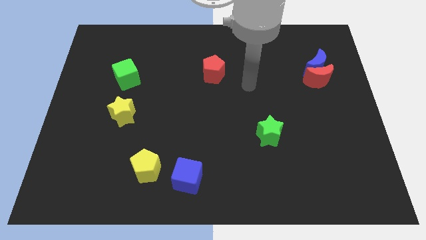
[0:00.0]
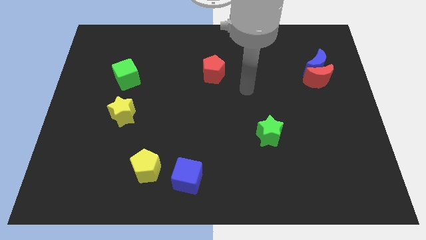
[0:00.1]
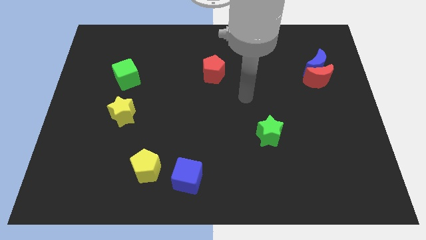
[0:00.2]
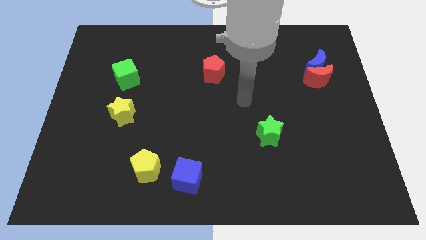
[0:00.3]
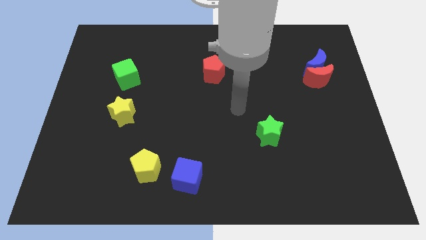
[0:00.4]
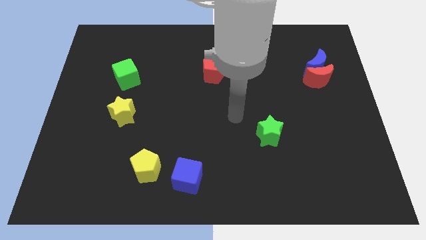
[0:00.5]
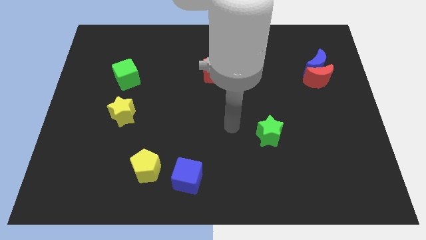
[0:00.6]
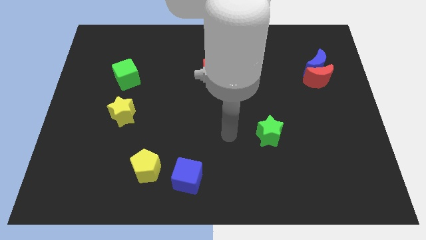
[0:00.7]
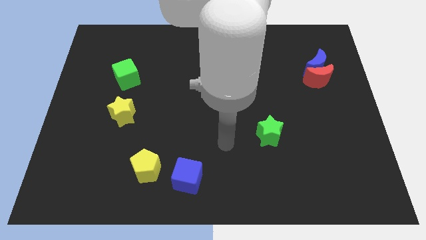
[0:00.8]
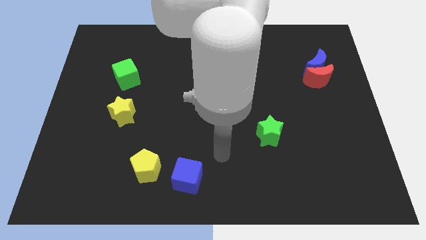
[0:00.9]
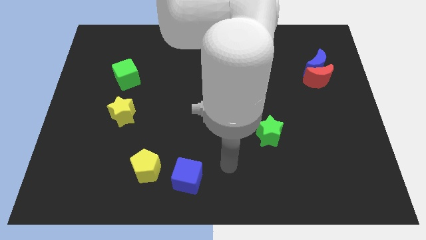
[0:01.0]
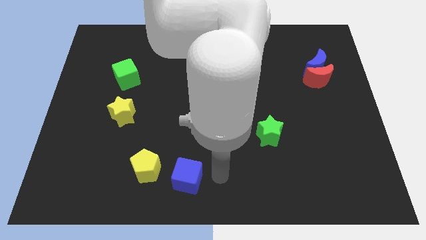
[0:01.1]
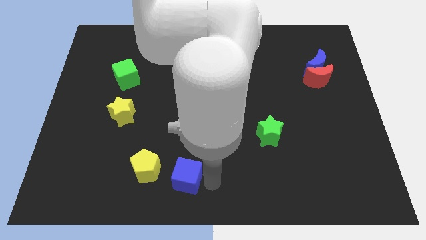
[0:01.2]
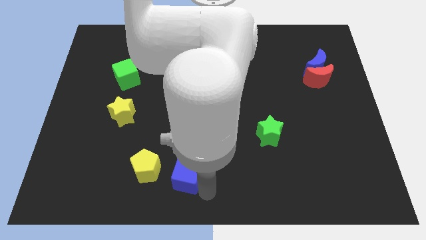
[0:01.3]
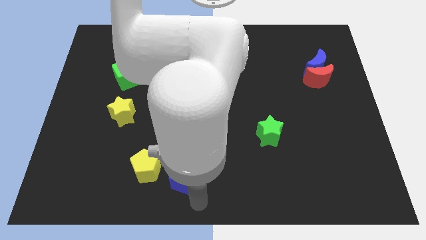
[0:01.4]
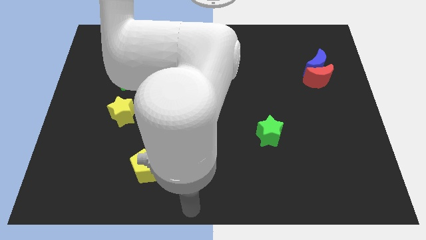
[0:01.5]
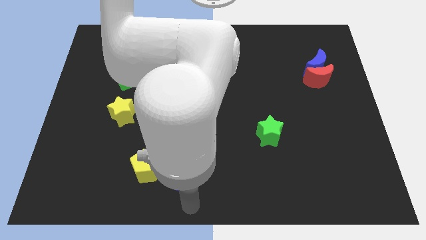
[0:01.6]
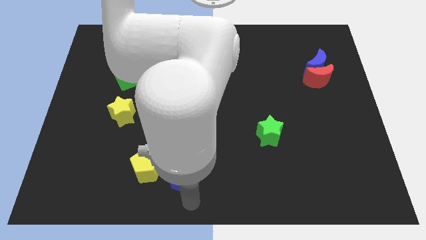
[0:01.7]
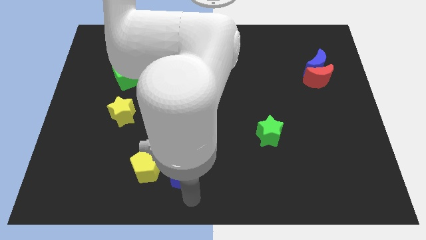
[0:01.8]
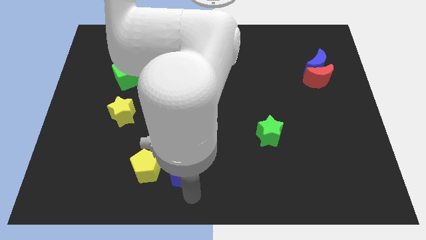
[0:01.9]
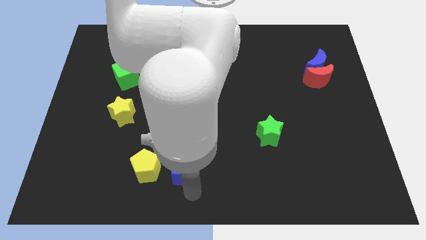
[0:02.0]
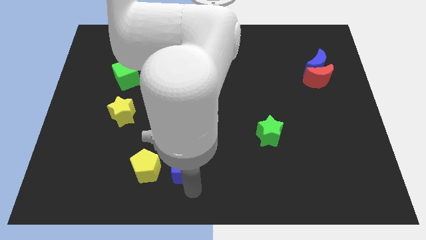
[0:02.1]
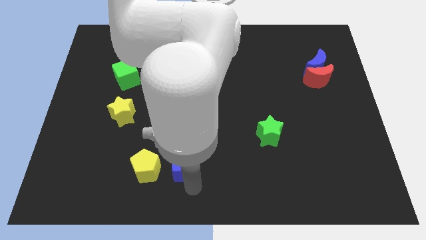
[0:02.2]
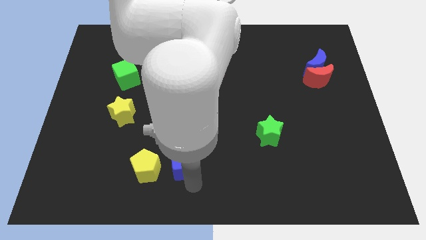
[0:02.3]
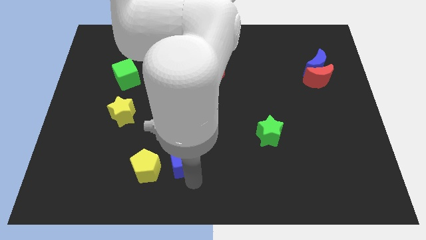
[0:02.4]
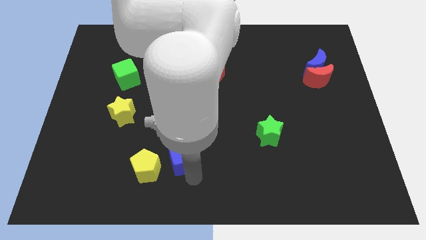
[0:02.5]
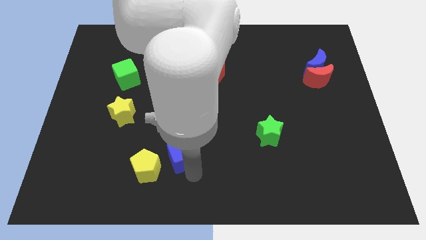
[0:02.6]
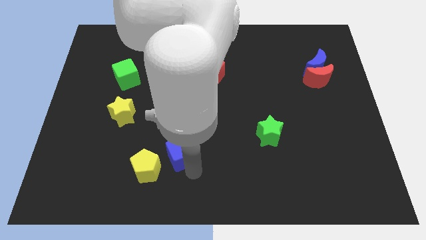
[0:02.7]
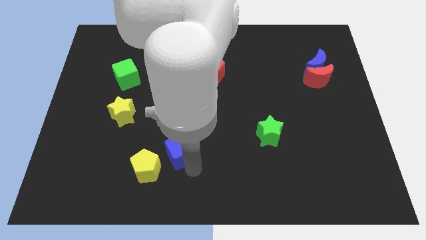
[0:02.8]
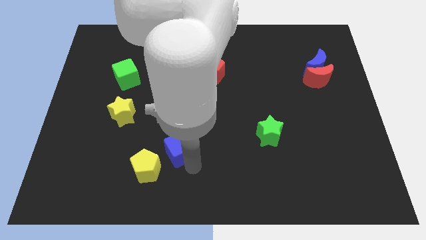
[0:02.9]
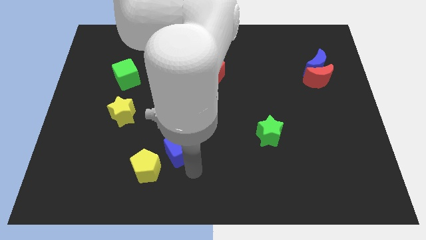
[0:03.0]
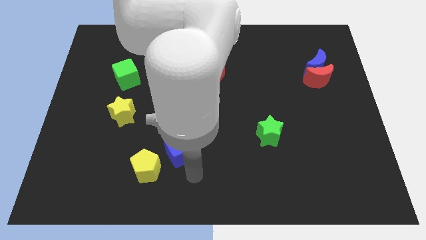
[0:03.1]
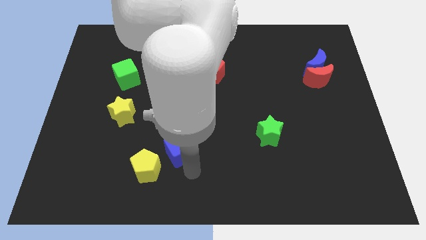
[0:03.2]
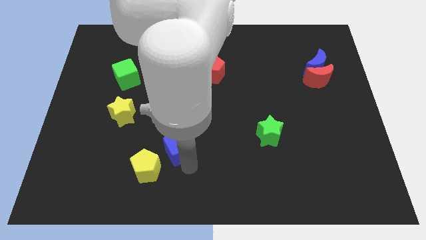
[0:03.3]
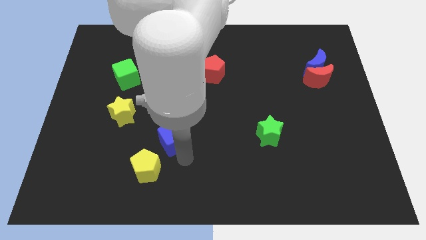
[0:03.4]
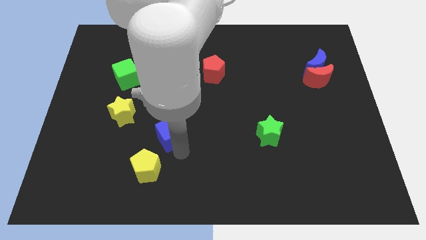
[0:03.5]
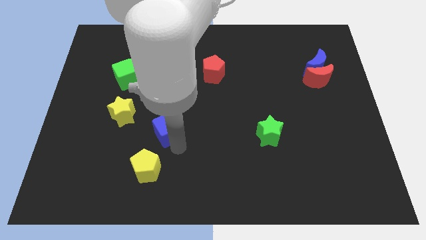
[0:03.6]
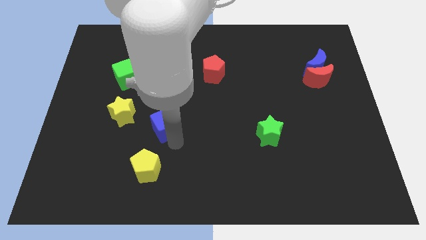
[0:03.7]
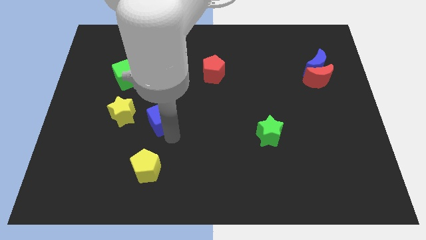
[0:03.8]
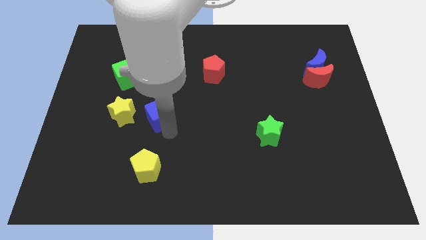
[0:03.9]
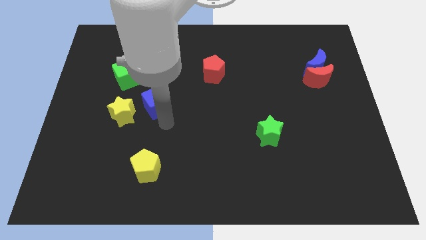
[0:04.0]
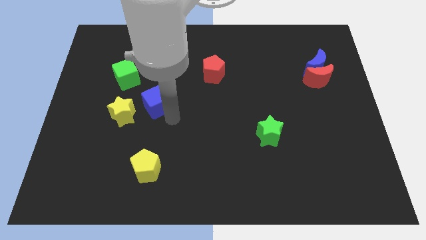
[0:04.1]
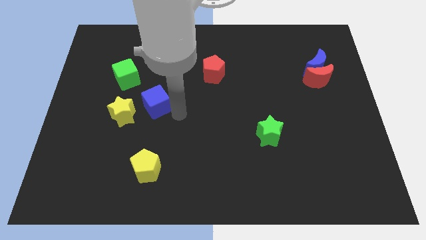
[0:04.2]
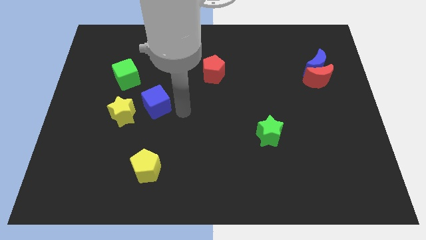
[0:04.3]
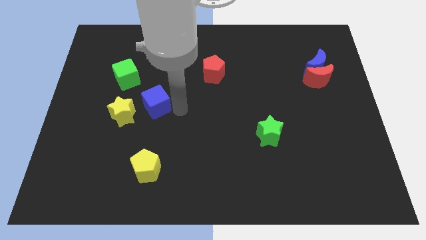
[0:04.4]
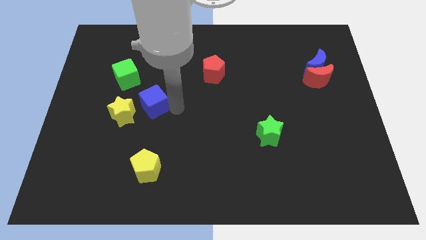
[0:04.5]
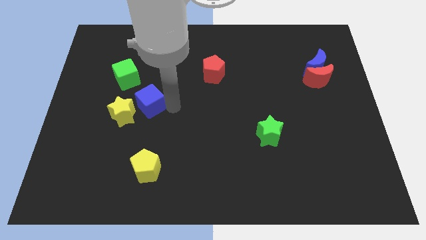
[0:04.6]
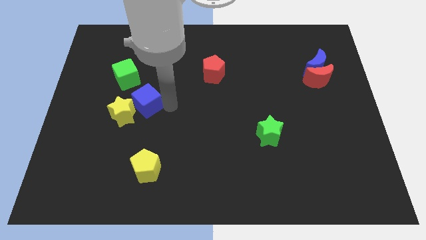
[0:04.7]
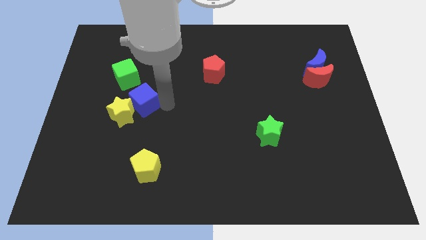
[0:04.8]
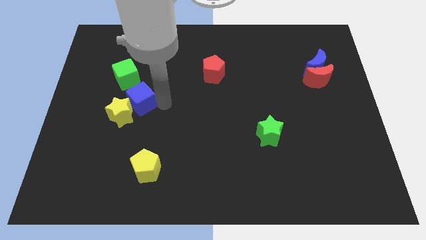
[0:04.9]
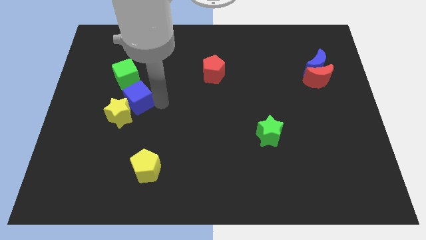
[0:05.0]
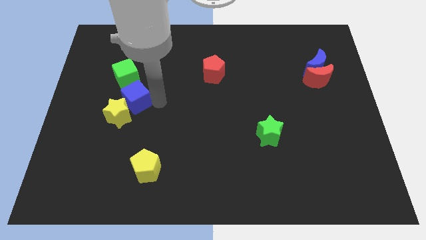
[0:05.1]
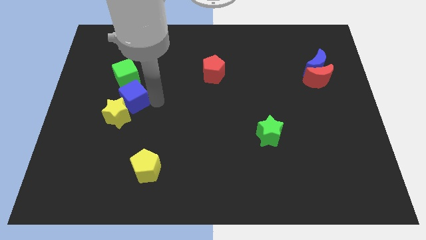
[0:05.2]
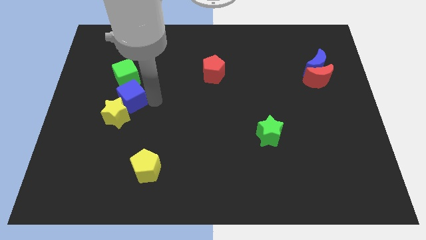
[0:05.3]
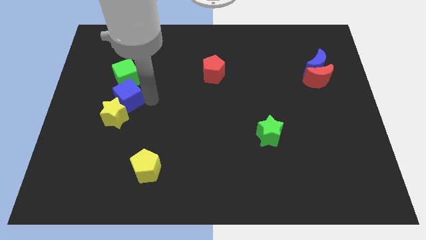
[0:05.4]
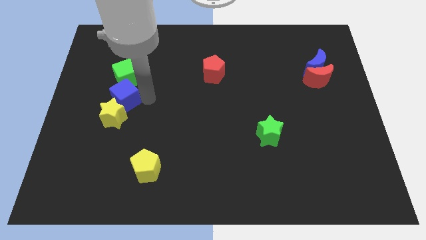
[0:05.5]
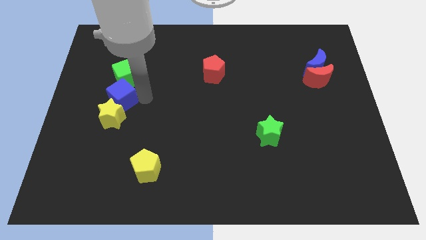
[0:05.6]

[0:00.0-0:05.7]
put the blue cube diagonally down and to the left of the green cube

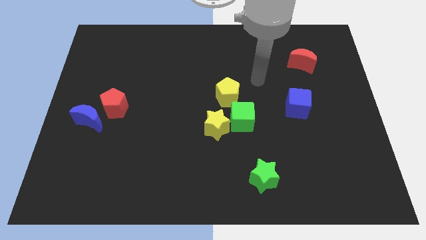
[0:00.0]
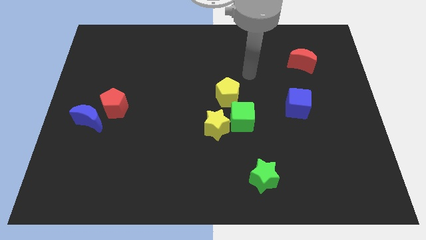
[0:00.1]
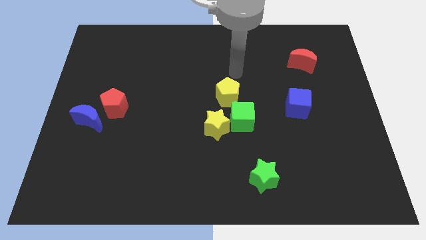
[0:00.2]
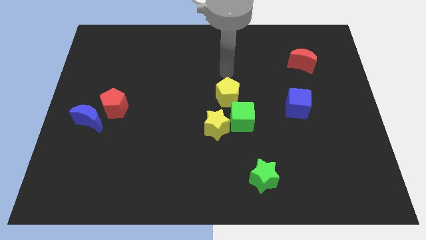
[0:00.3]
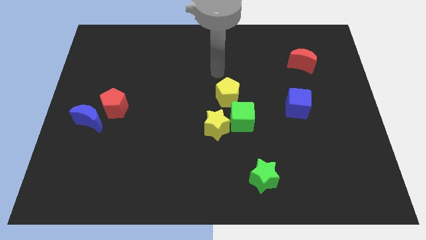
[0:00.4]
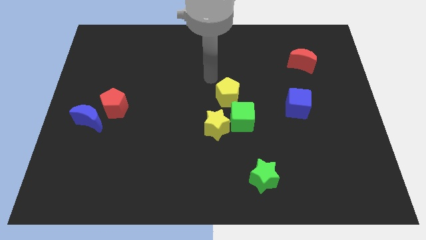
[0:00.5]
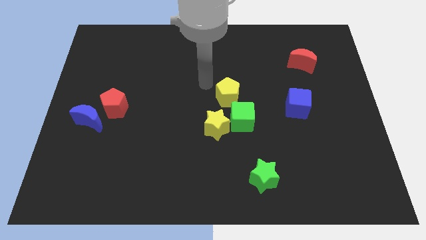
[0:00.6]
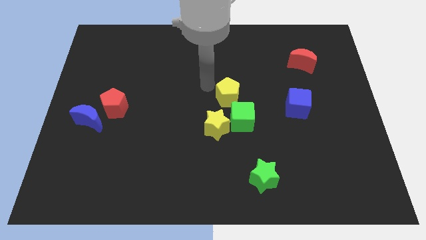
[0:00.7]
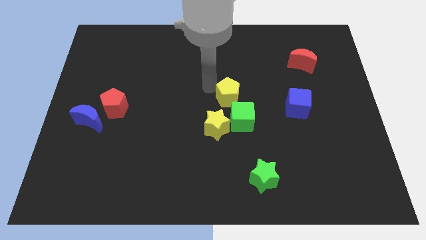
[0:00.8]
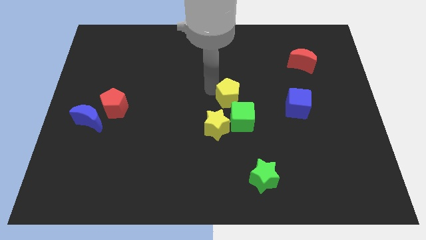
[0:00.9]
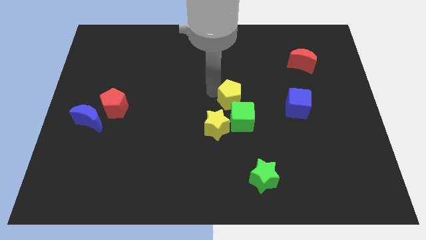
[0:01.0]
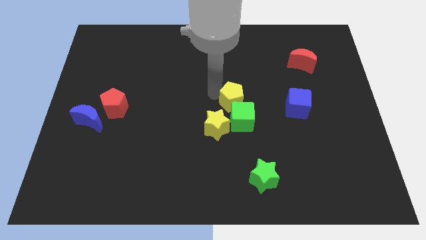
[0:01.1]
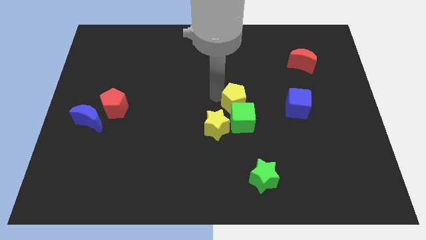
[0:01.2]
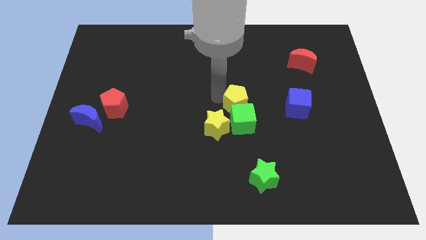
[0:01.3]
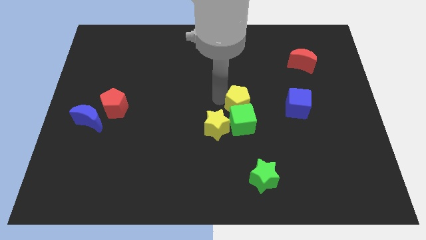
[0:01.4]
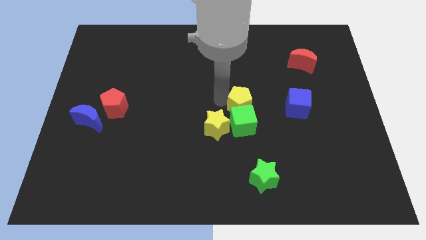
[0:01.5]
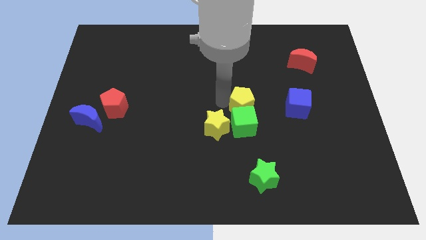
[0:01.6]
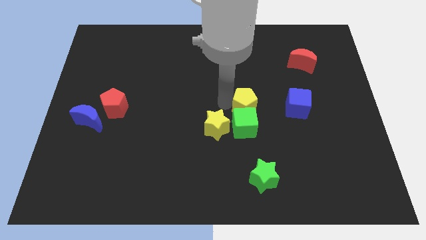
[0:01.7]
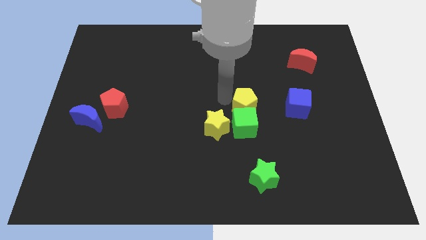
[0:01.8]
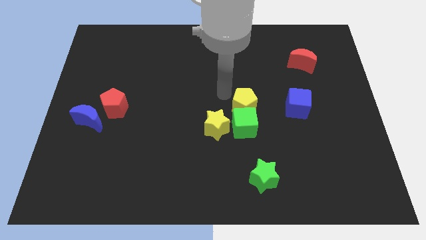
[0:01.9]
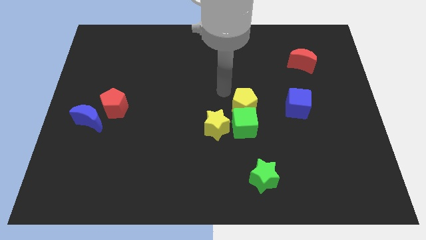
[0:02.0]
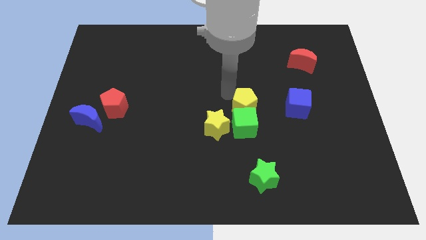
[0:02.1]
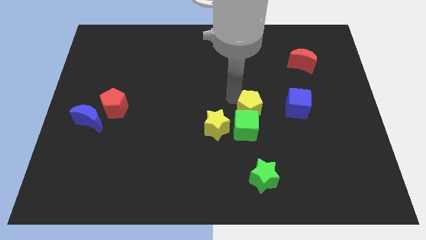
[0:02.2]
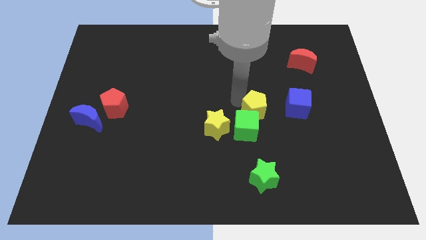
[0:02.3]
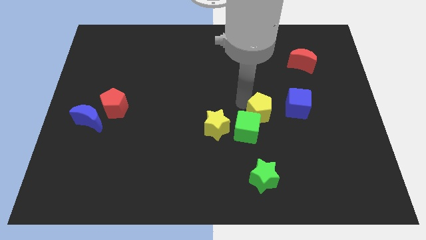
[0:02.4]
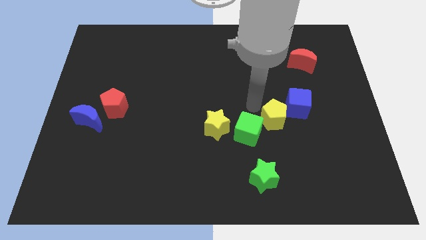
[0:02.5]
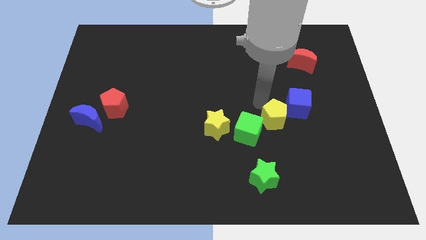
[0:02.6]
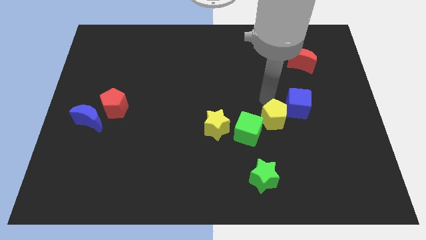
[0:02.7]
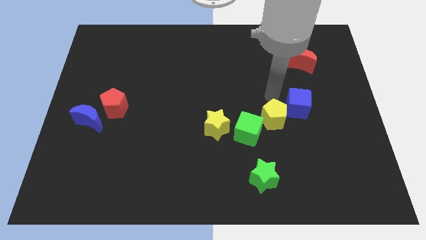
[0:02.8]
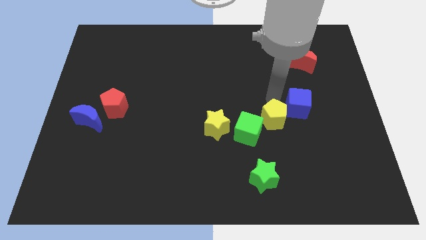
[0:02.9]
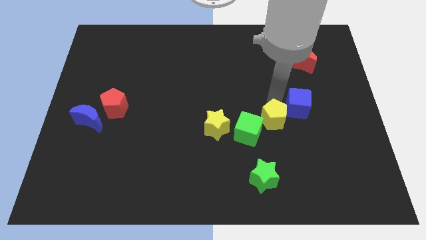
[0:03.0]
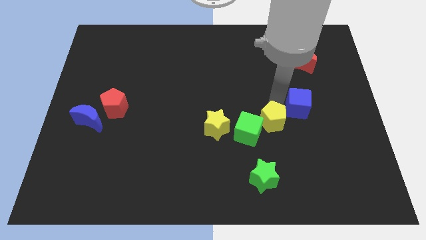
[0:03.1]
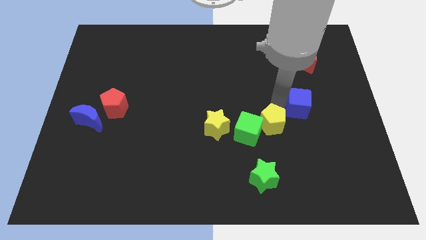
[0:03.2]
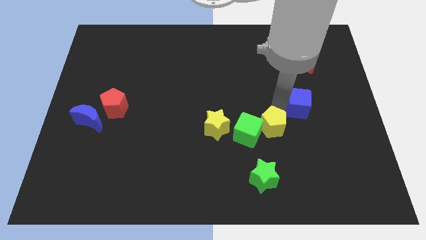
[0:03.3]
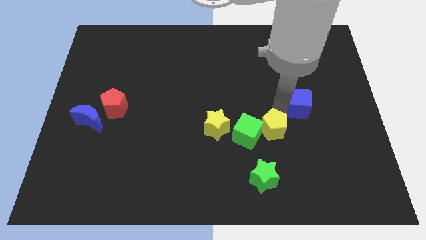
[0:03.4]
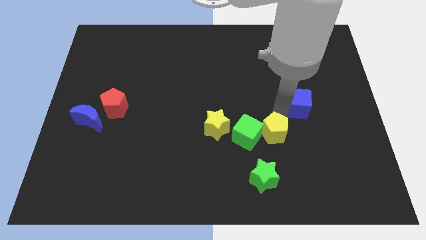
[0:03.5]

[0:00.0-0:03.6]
slide the yellow pentagon to the bottom right of the green cube
